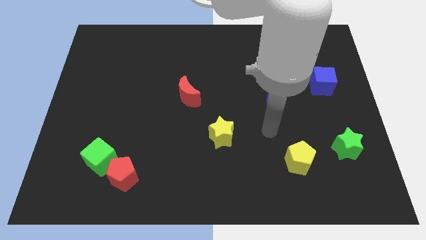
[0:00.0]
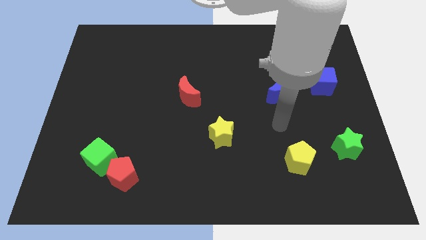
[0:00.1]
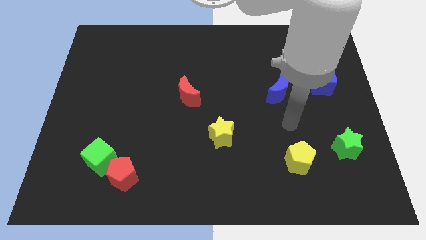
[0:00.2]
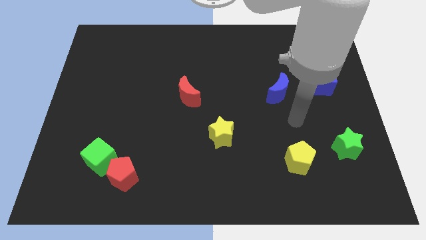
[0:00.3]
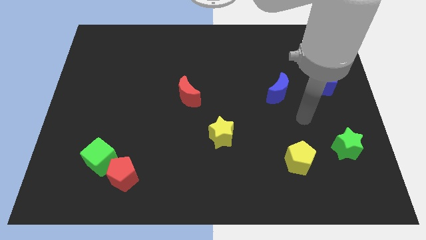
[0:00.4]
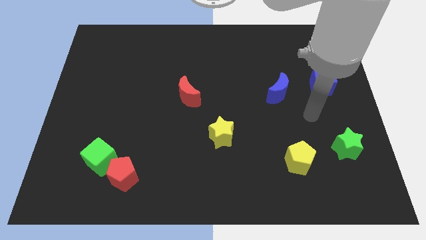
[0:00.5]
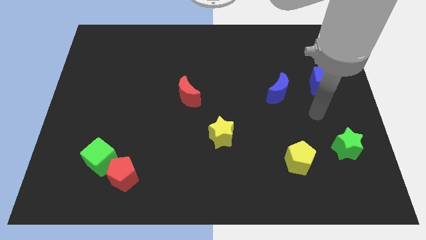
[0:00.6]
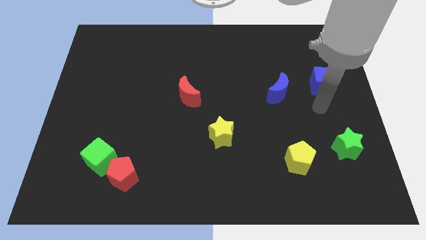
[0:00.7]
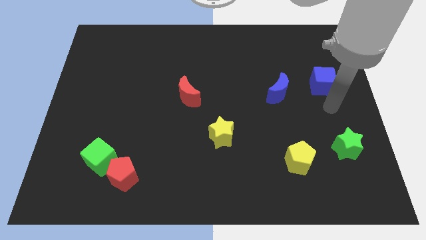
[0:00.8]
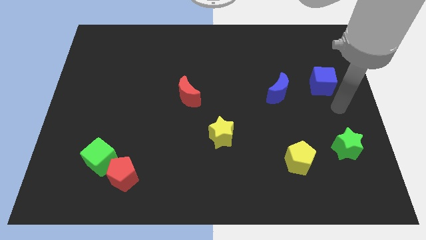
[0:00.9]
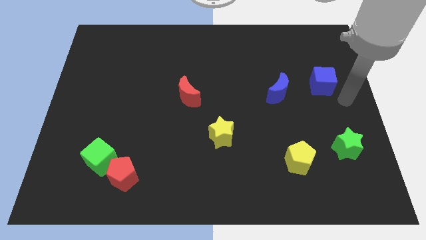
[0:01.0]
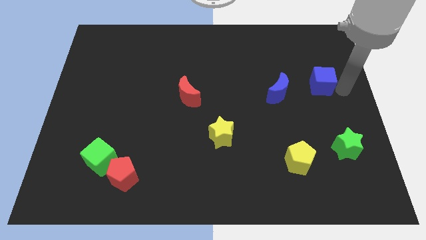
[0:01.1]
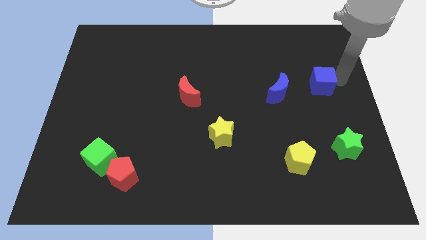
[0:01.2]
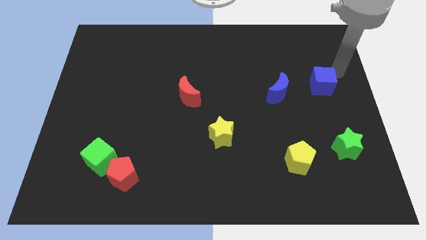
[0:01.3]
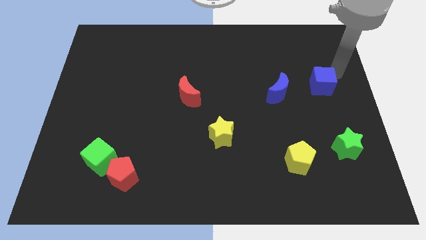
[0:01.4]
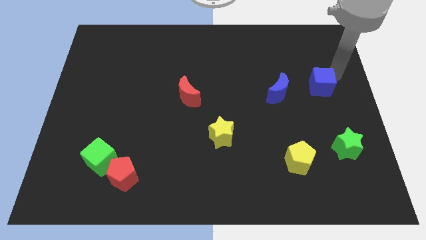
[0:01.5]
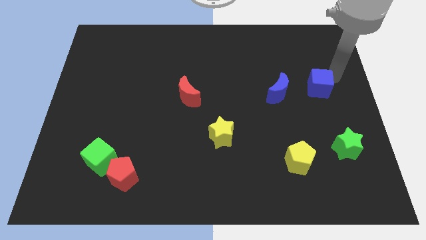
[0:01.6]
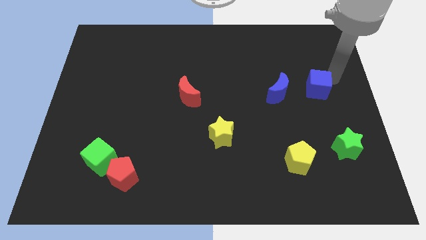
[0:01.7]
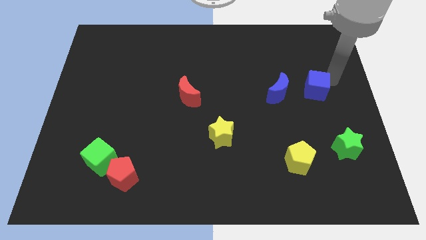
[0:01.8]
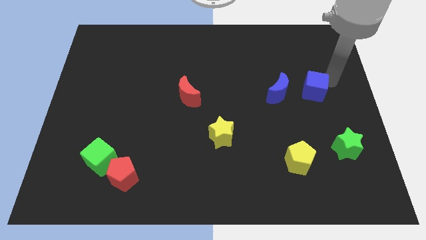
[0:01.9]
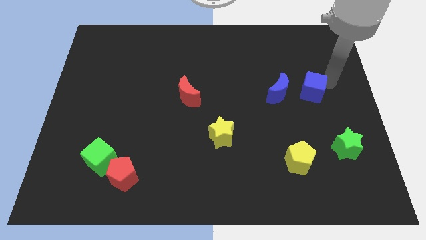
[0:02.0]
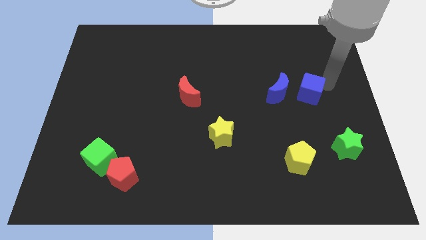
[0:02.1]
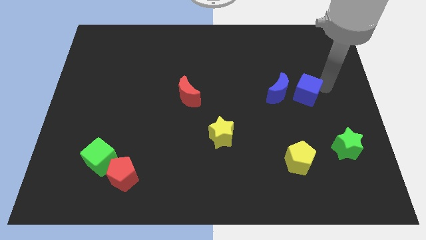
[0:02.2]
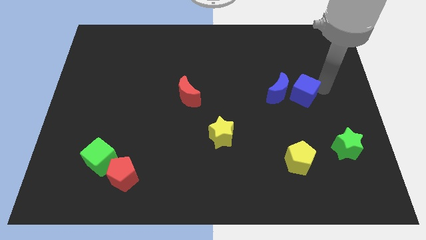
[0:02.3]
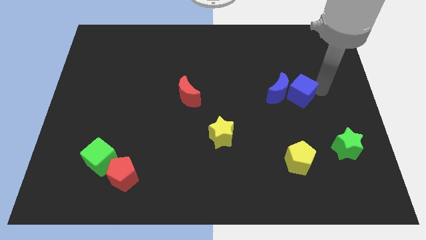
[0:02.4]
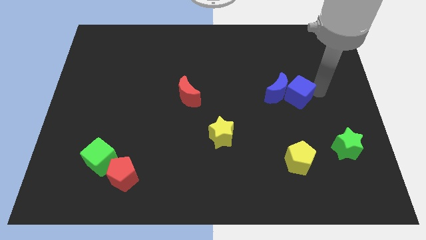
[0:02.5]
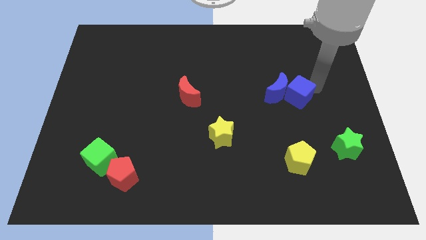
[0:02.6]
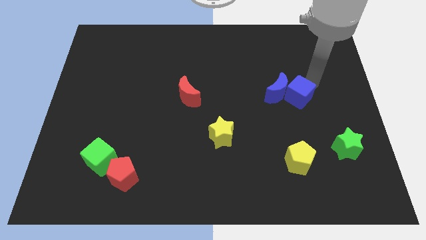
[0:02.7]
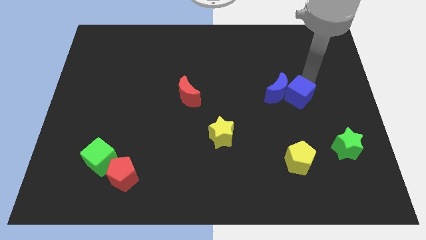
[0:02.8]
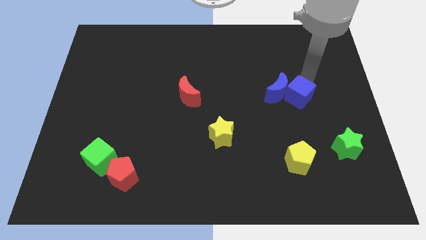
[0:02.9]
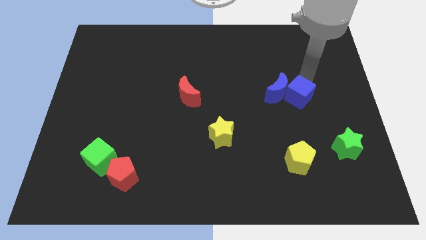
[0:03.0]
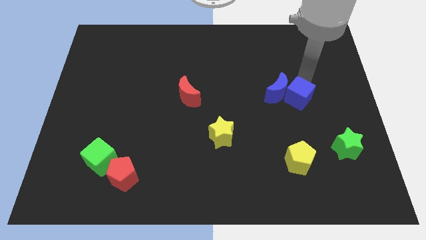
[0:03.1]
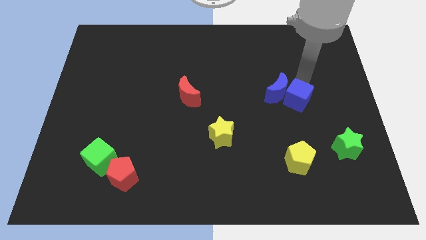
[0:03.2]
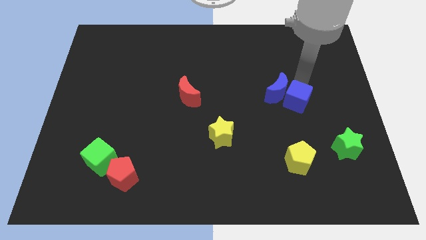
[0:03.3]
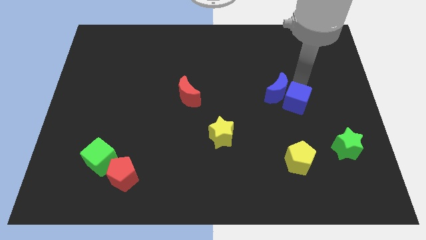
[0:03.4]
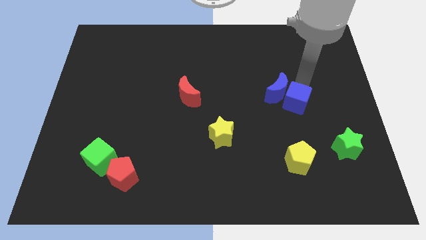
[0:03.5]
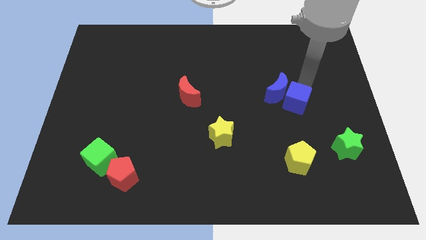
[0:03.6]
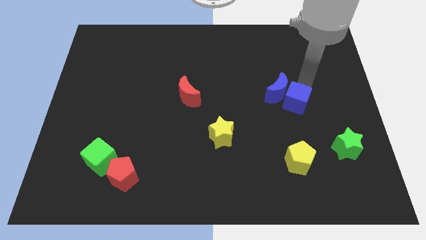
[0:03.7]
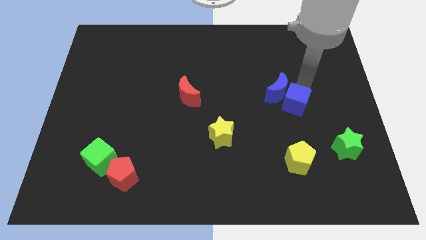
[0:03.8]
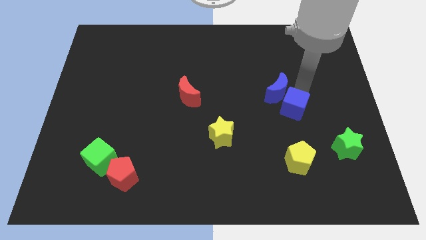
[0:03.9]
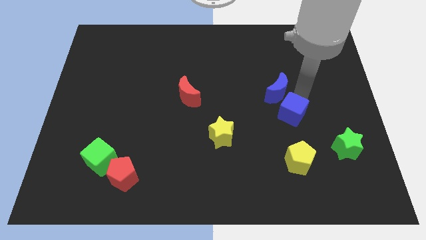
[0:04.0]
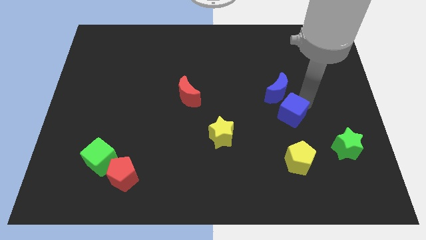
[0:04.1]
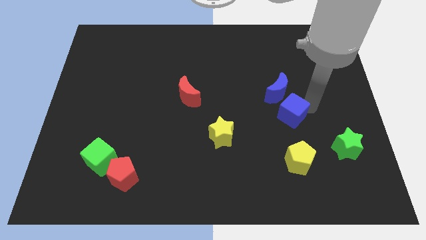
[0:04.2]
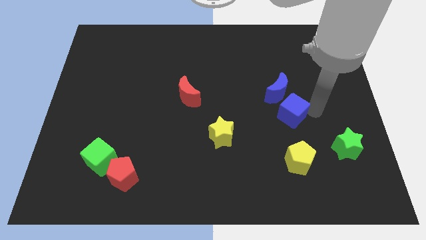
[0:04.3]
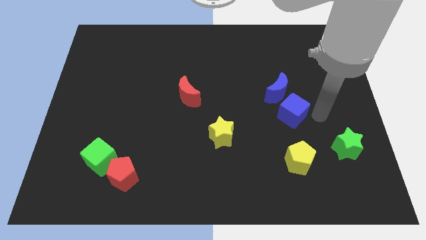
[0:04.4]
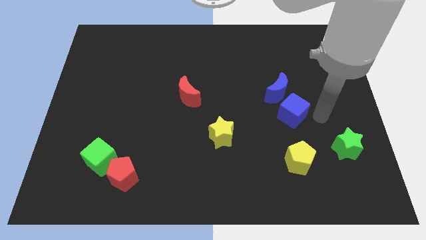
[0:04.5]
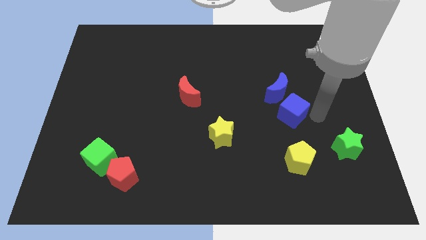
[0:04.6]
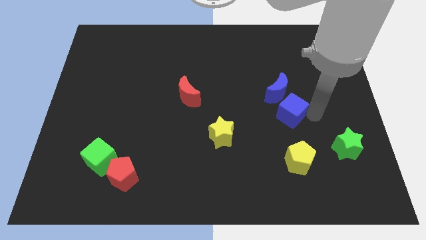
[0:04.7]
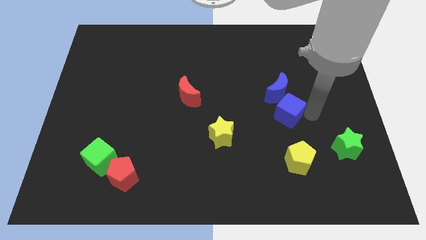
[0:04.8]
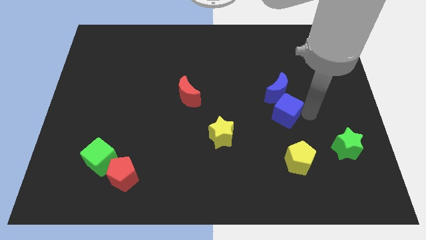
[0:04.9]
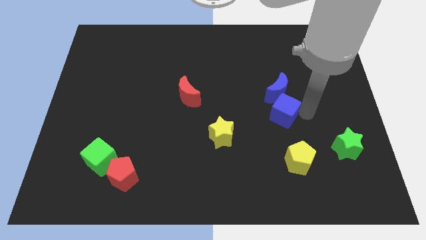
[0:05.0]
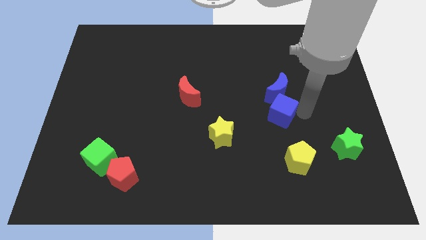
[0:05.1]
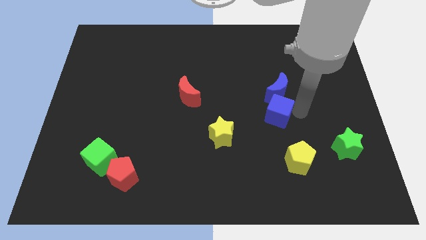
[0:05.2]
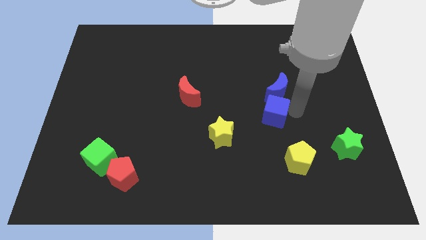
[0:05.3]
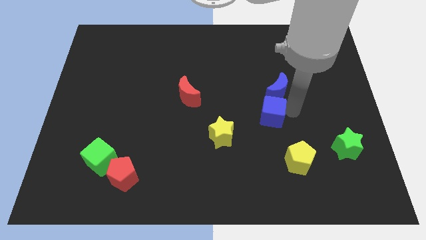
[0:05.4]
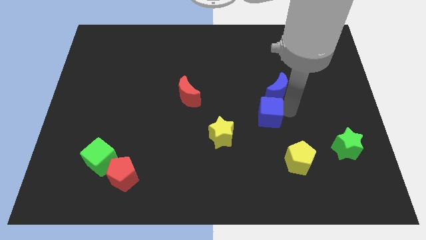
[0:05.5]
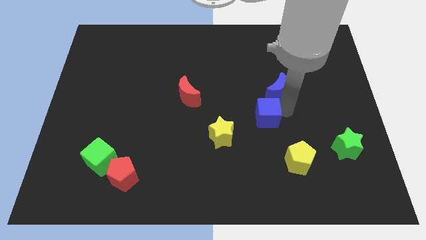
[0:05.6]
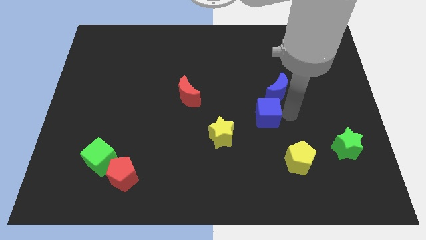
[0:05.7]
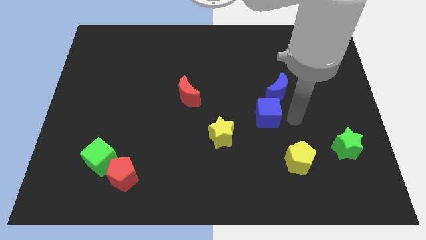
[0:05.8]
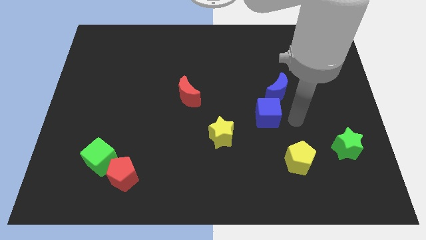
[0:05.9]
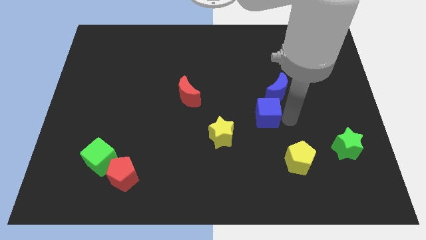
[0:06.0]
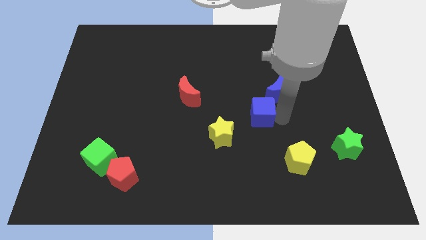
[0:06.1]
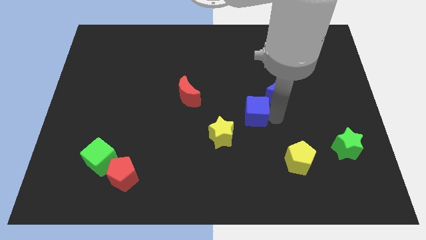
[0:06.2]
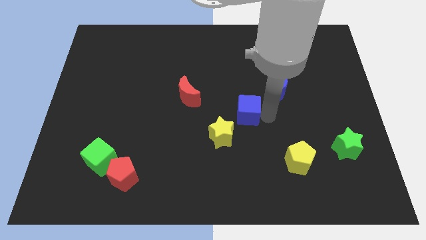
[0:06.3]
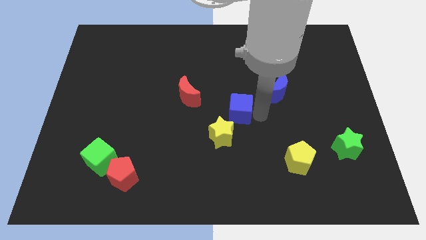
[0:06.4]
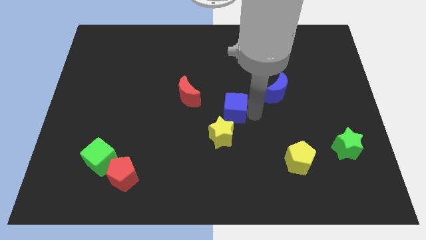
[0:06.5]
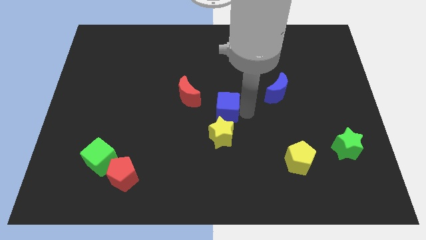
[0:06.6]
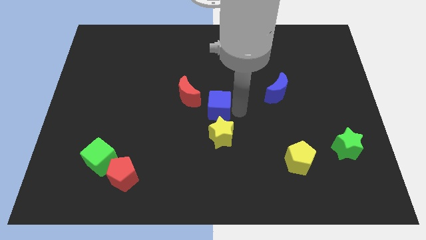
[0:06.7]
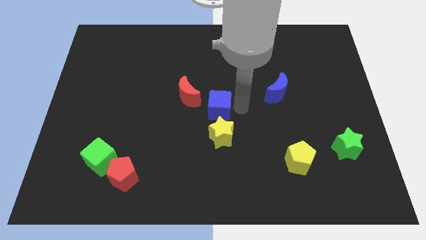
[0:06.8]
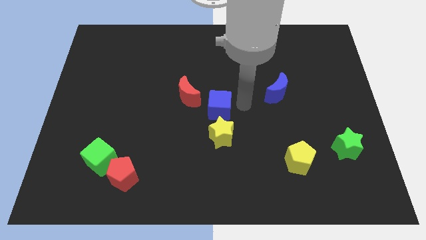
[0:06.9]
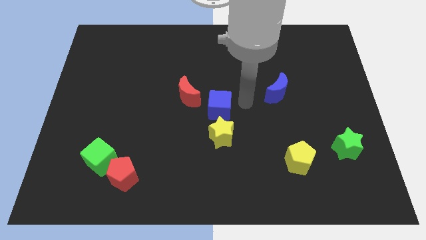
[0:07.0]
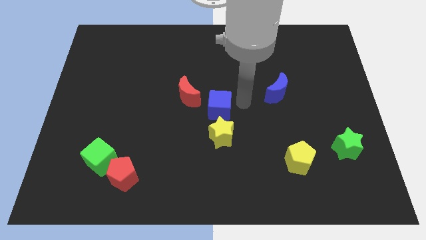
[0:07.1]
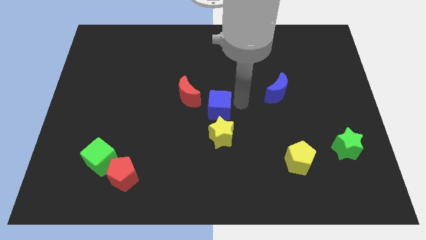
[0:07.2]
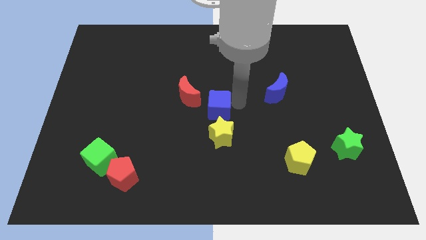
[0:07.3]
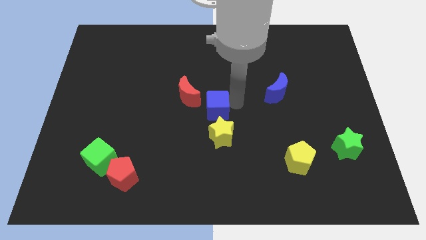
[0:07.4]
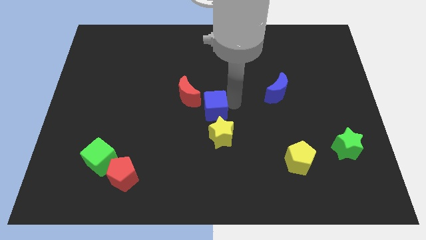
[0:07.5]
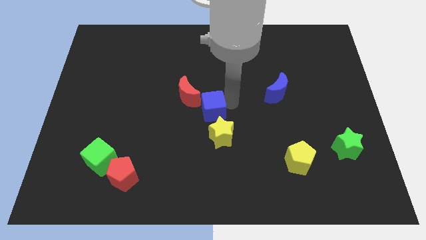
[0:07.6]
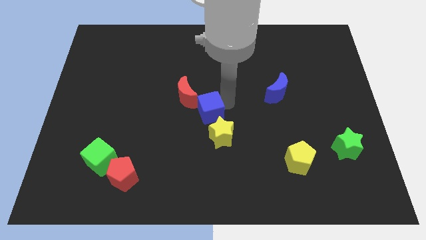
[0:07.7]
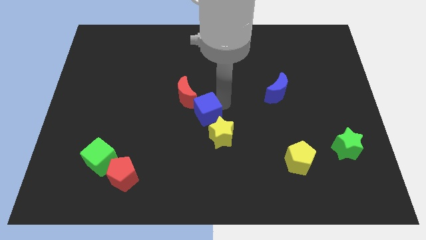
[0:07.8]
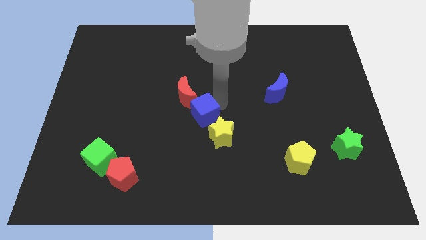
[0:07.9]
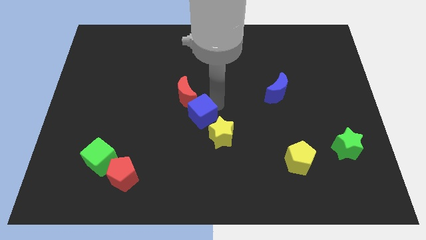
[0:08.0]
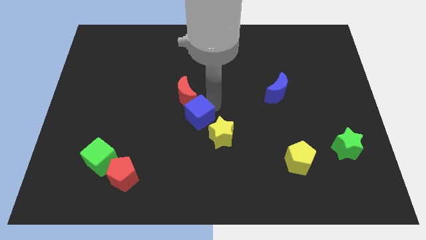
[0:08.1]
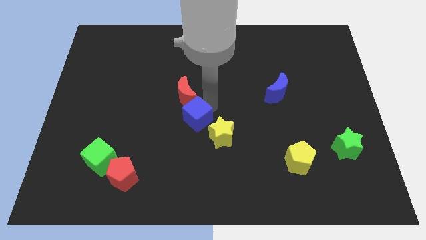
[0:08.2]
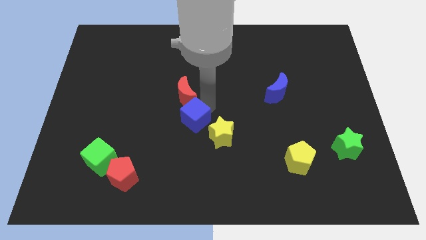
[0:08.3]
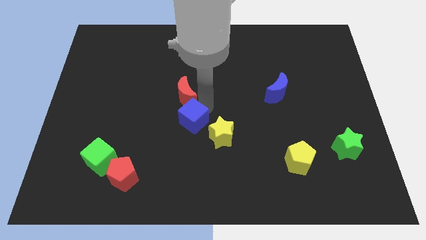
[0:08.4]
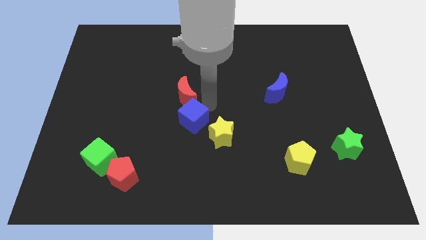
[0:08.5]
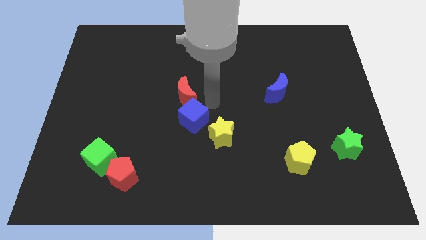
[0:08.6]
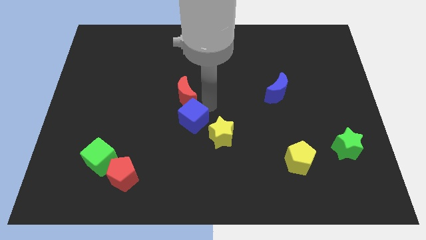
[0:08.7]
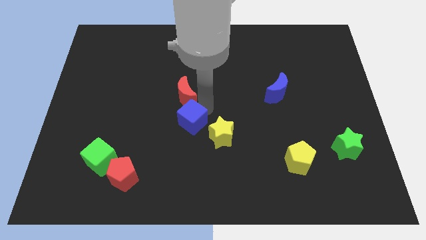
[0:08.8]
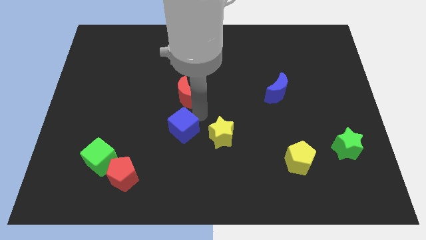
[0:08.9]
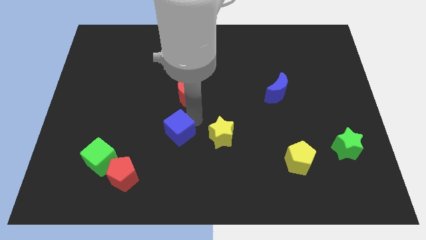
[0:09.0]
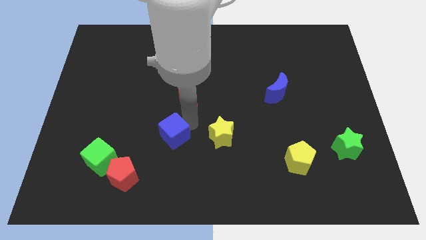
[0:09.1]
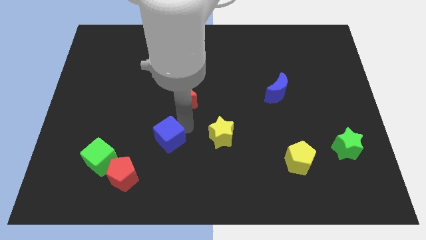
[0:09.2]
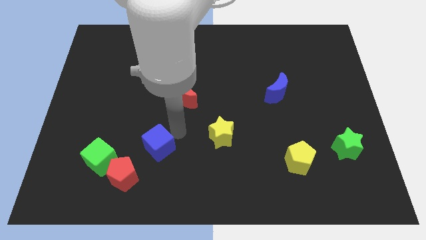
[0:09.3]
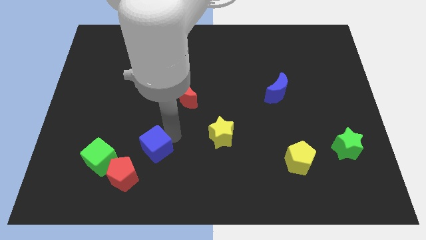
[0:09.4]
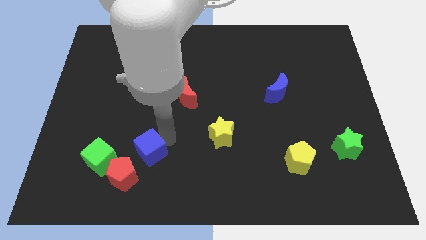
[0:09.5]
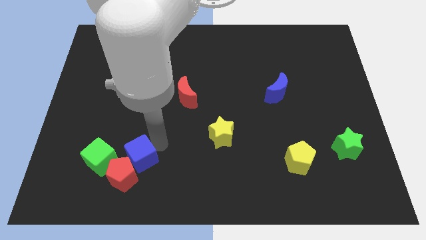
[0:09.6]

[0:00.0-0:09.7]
put the blue cube next to the red pentagon
